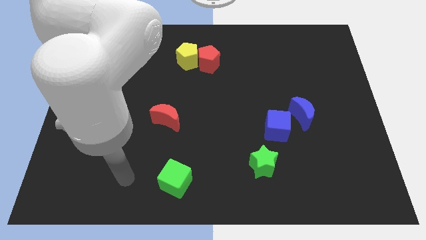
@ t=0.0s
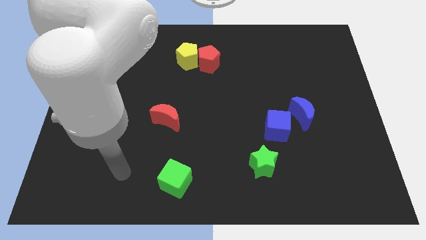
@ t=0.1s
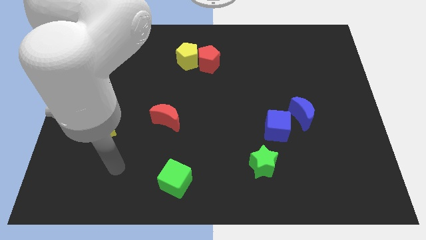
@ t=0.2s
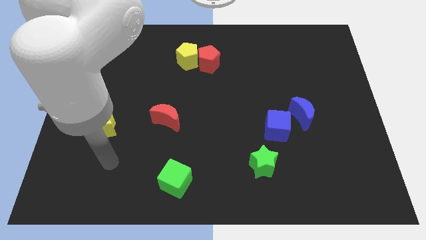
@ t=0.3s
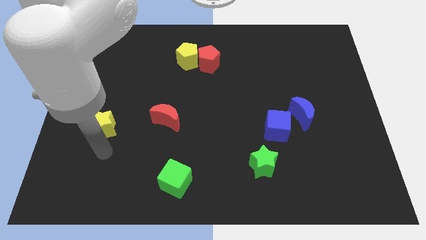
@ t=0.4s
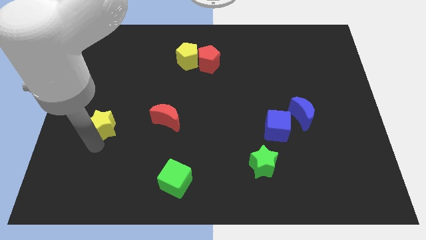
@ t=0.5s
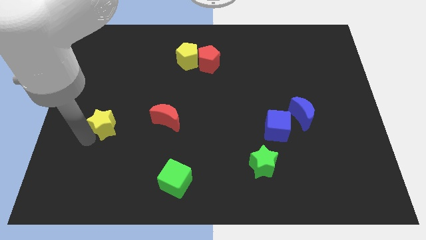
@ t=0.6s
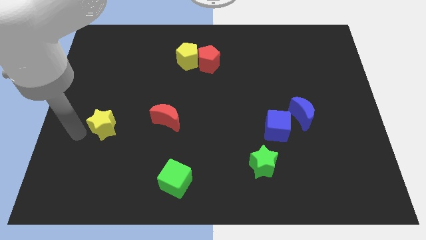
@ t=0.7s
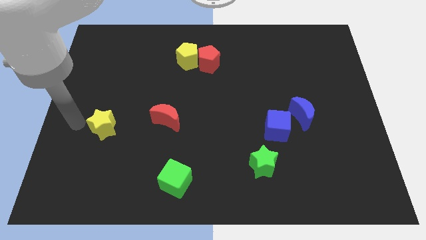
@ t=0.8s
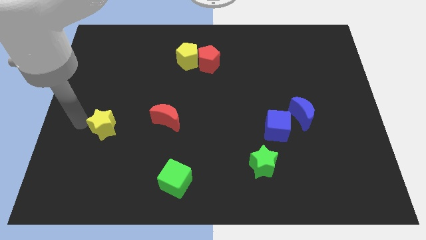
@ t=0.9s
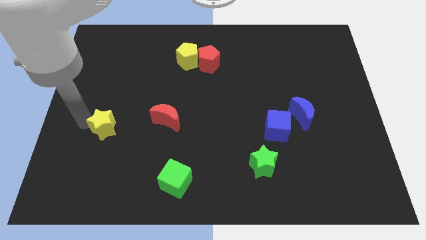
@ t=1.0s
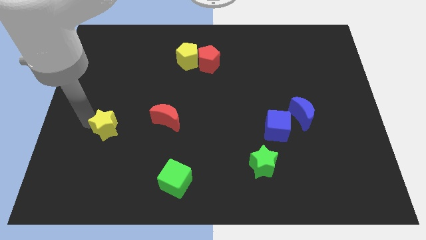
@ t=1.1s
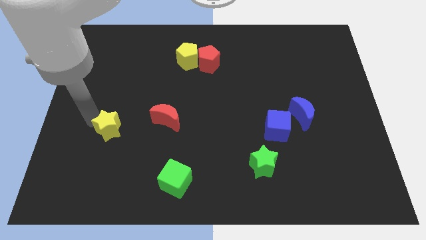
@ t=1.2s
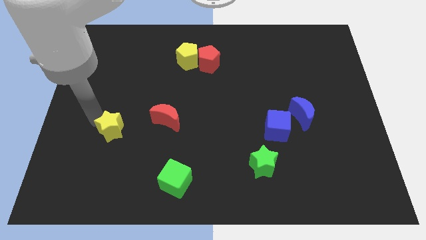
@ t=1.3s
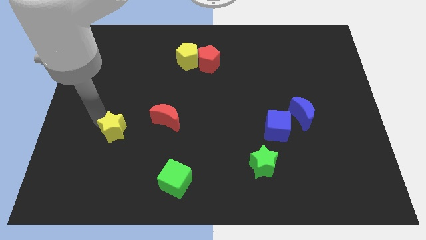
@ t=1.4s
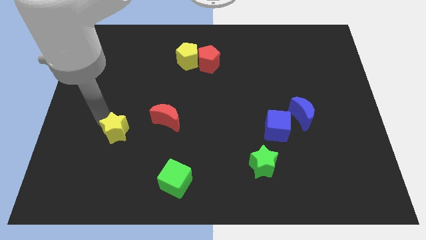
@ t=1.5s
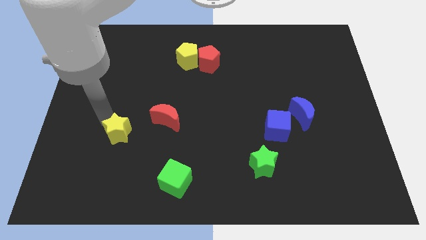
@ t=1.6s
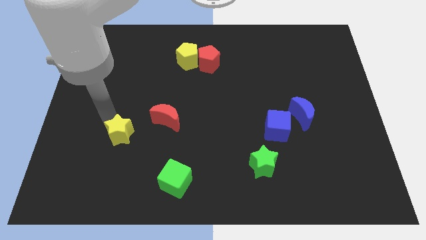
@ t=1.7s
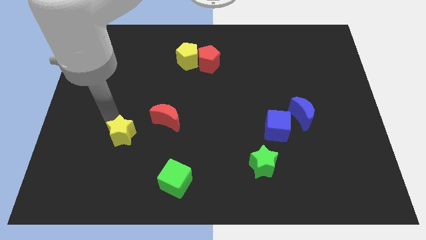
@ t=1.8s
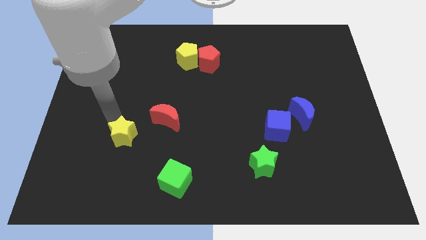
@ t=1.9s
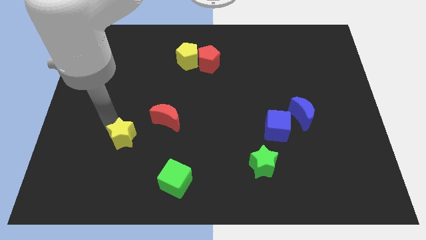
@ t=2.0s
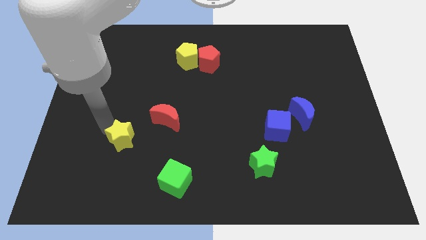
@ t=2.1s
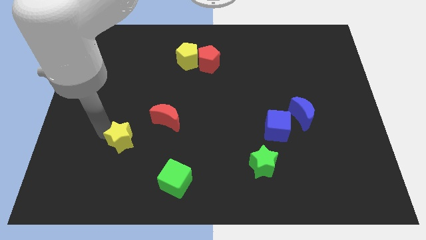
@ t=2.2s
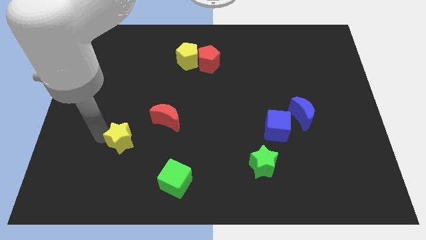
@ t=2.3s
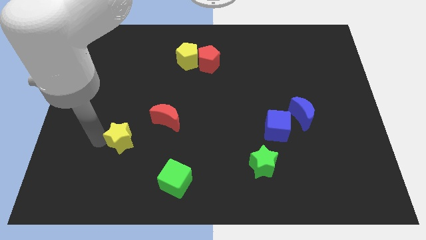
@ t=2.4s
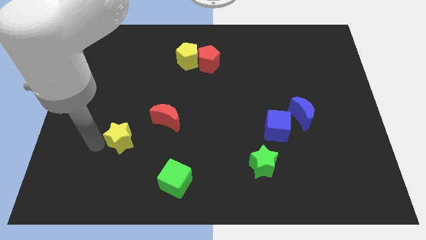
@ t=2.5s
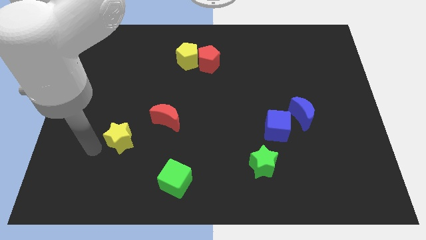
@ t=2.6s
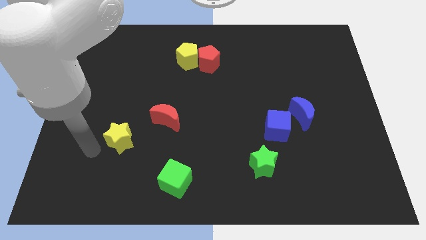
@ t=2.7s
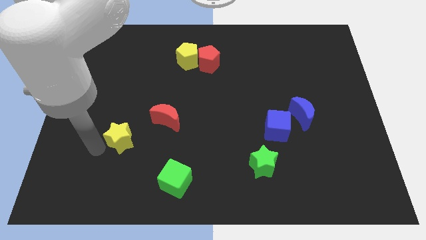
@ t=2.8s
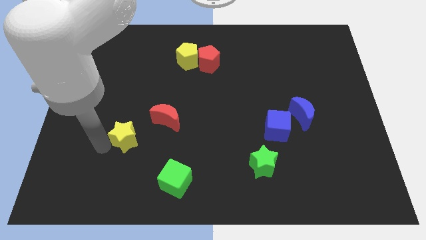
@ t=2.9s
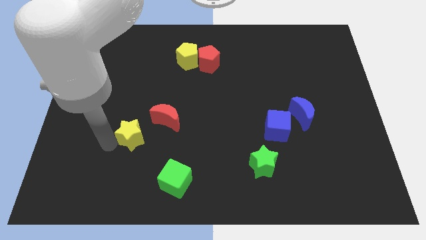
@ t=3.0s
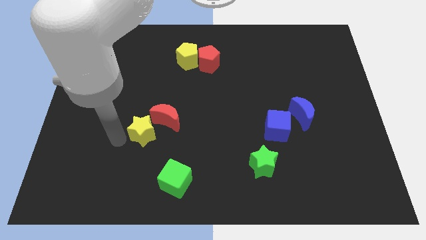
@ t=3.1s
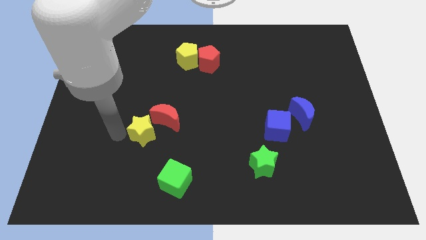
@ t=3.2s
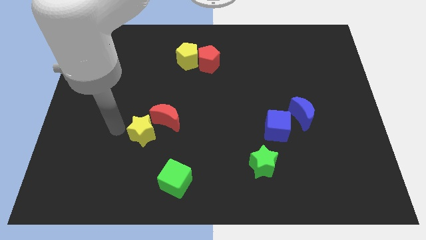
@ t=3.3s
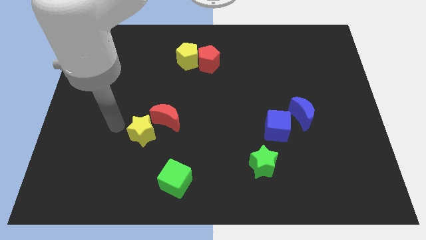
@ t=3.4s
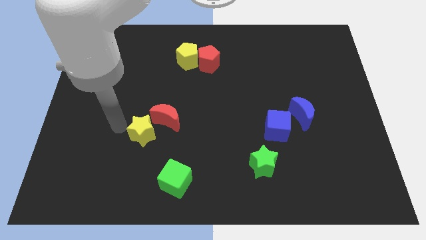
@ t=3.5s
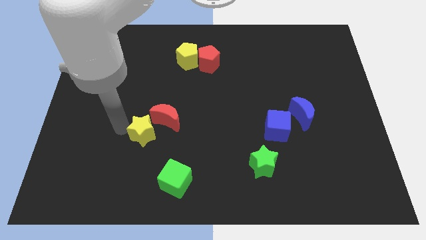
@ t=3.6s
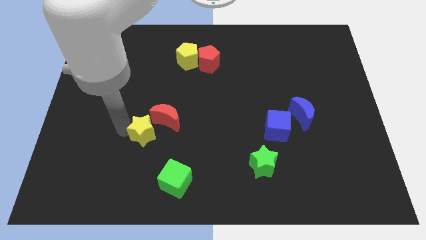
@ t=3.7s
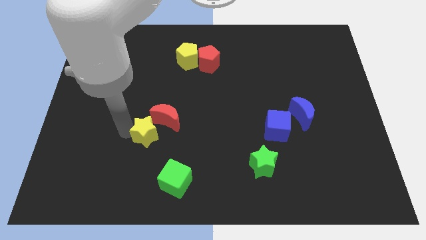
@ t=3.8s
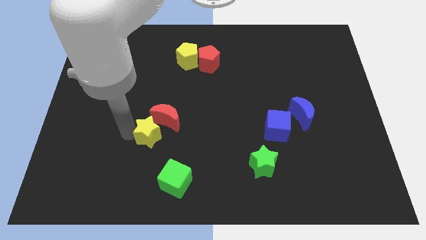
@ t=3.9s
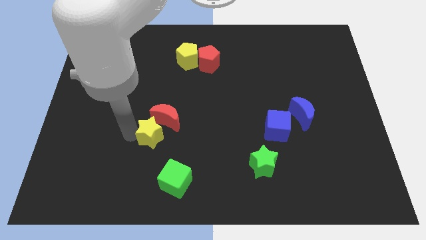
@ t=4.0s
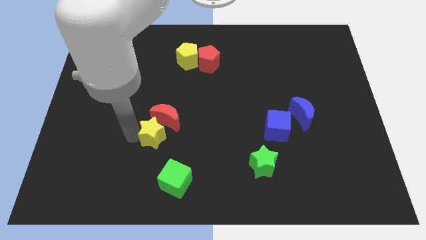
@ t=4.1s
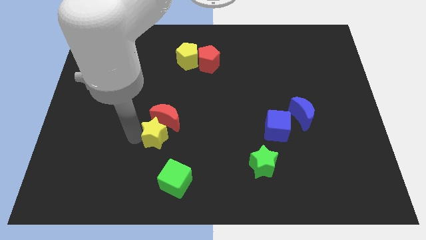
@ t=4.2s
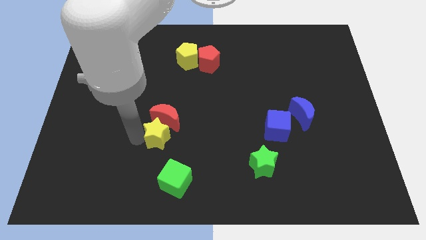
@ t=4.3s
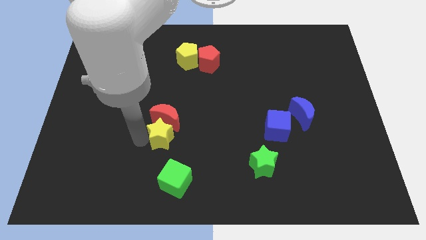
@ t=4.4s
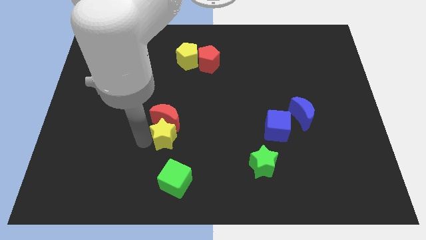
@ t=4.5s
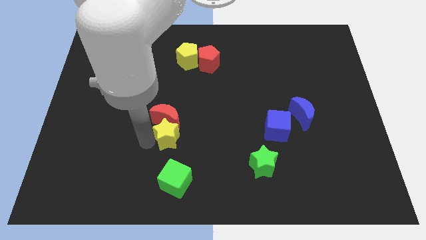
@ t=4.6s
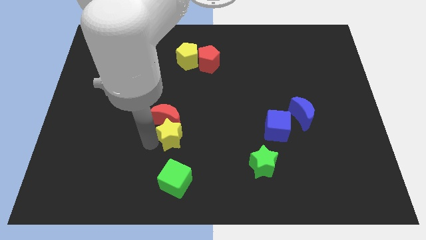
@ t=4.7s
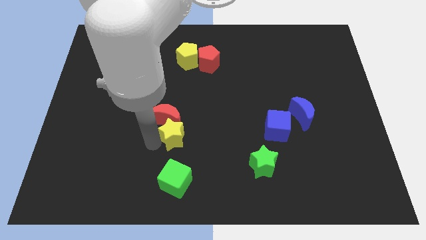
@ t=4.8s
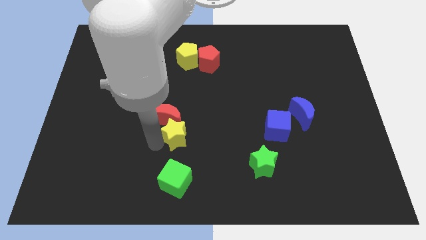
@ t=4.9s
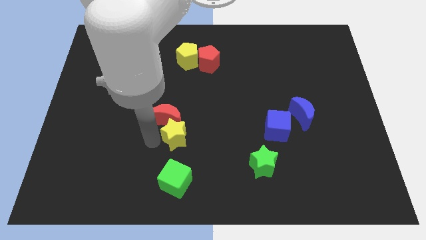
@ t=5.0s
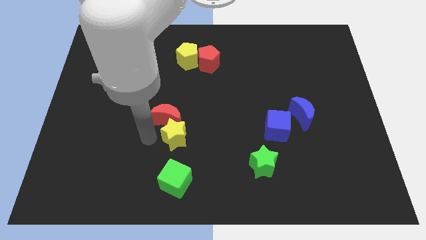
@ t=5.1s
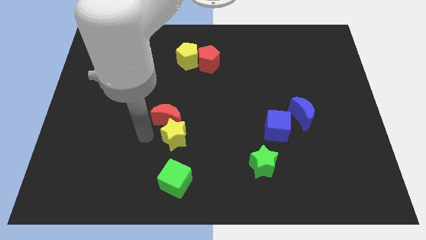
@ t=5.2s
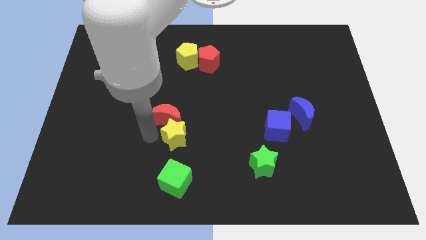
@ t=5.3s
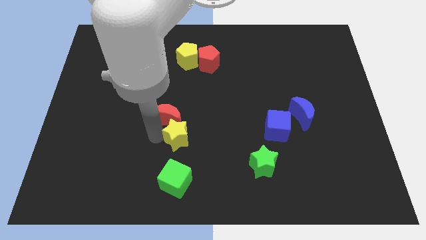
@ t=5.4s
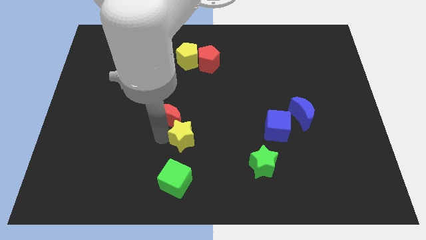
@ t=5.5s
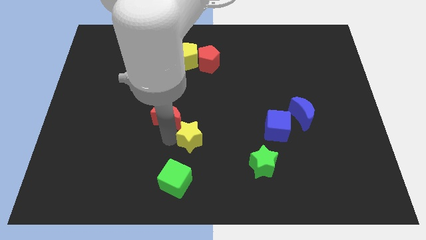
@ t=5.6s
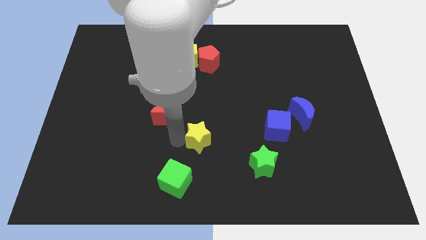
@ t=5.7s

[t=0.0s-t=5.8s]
move the yellow star to the right

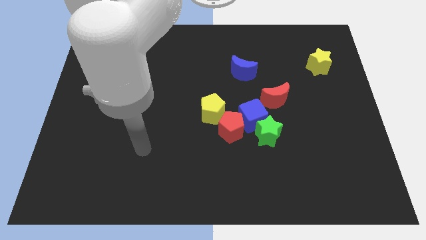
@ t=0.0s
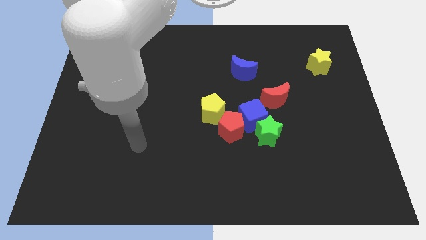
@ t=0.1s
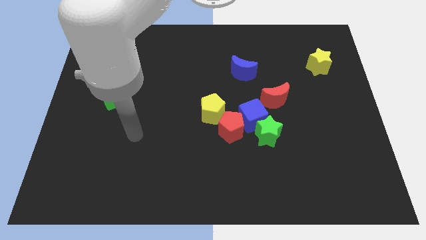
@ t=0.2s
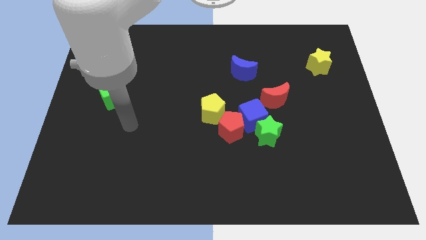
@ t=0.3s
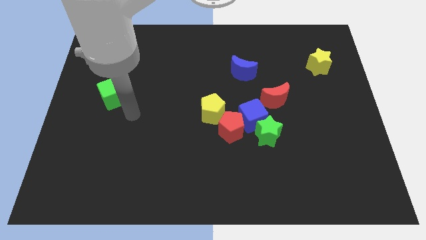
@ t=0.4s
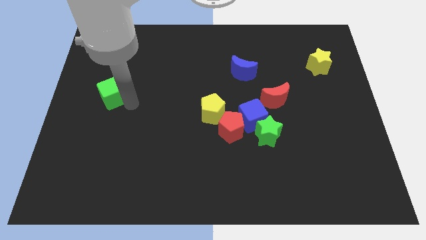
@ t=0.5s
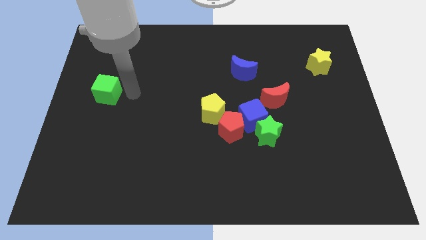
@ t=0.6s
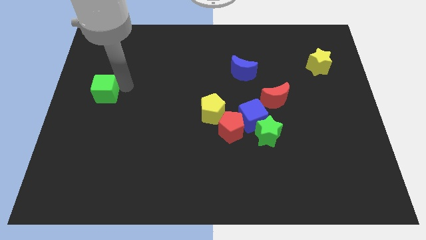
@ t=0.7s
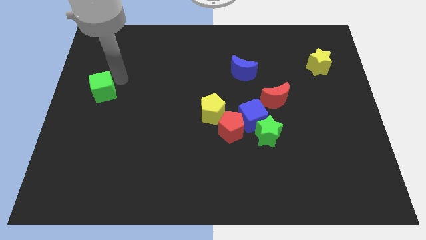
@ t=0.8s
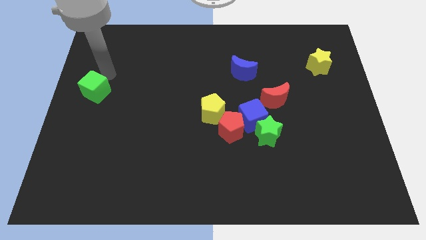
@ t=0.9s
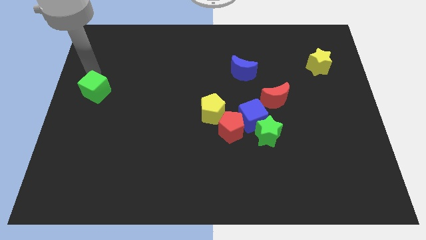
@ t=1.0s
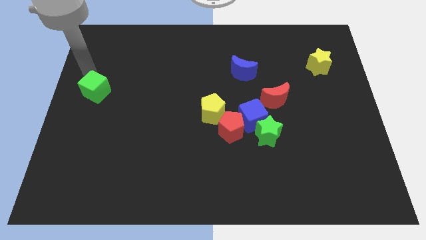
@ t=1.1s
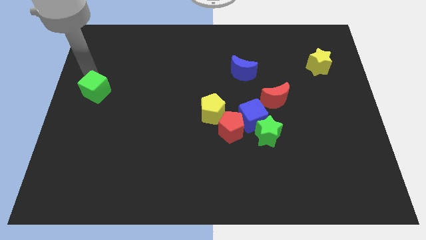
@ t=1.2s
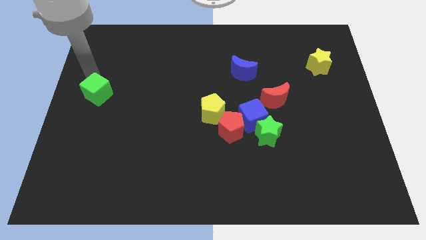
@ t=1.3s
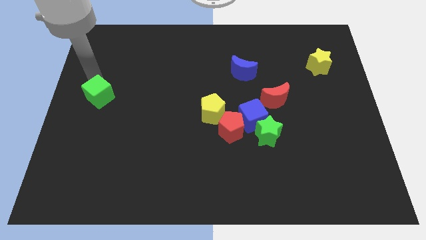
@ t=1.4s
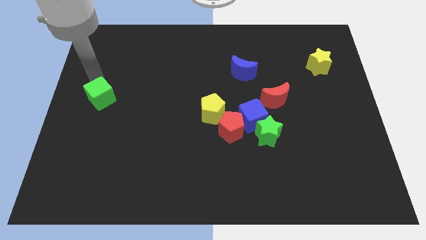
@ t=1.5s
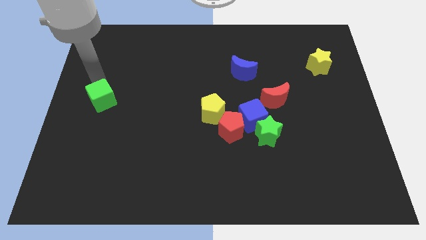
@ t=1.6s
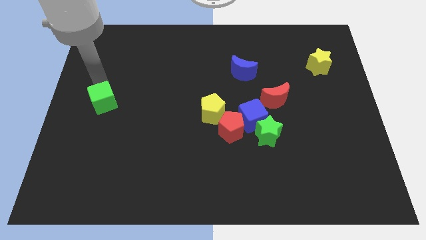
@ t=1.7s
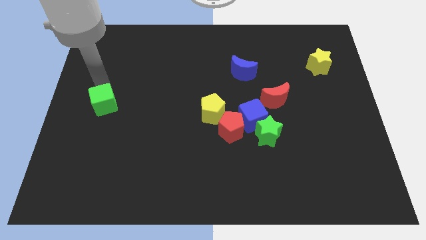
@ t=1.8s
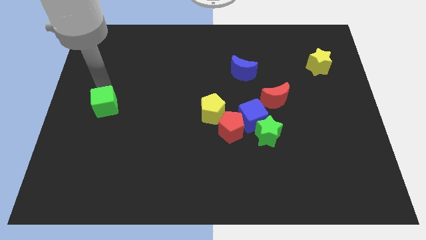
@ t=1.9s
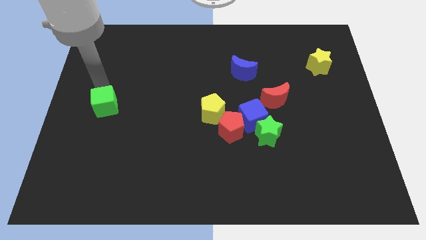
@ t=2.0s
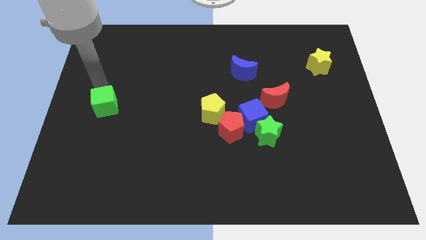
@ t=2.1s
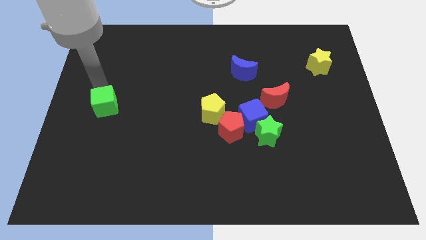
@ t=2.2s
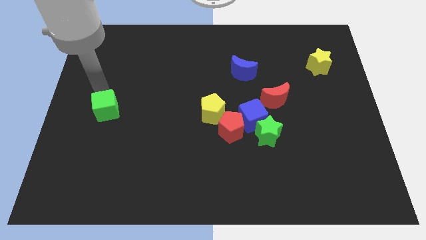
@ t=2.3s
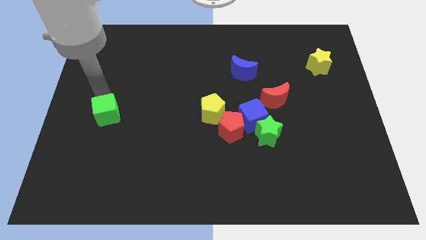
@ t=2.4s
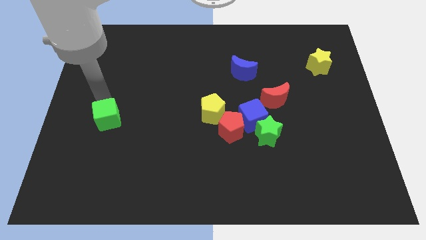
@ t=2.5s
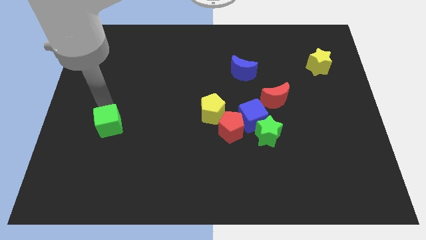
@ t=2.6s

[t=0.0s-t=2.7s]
move the green cube downwards slightly
